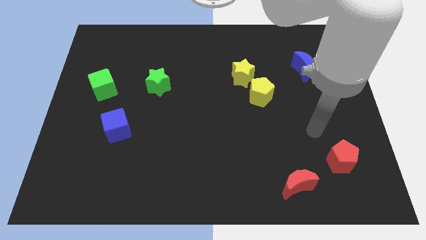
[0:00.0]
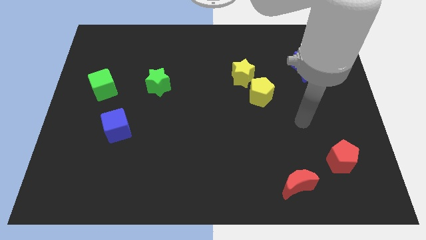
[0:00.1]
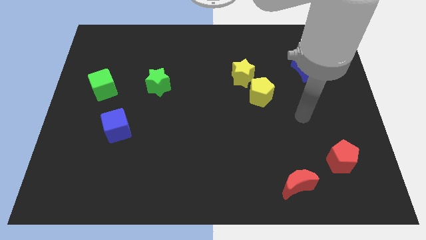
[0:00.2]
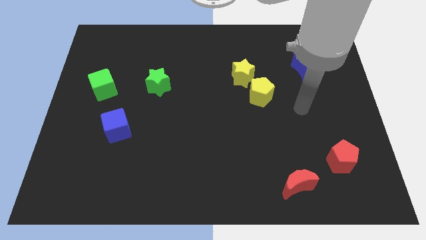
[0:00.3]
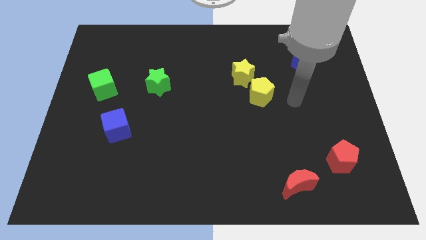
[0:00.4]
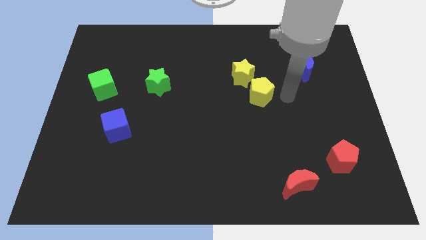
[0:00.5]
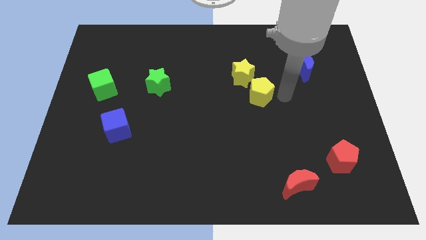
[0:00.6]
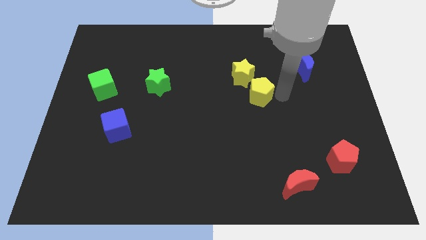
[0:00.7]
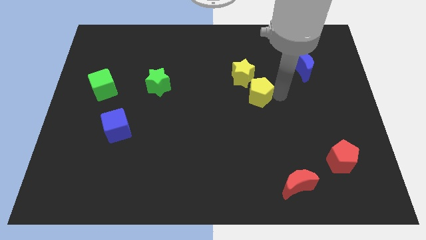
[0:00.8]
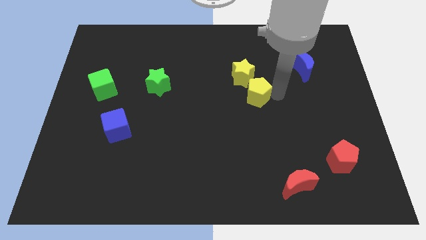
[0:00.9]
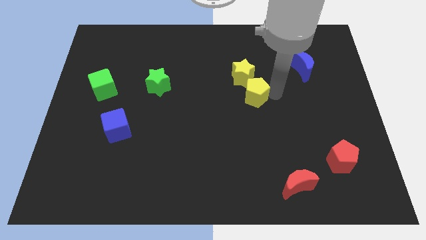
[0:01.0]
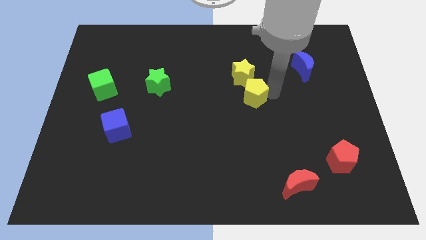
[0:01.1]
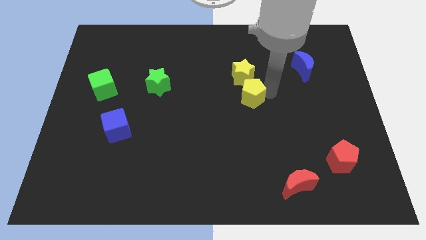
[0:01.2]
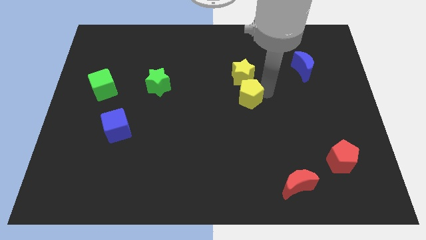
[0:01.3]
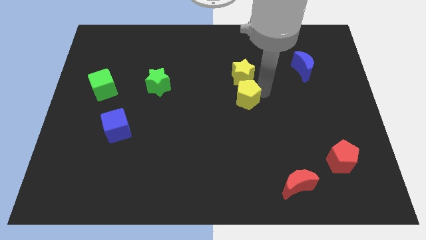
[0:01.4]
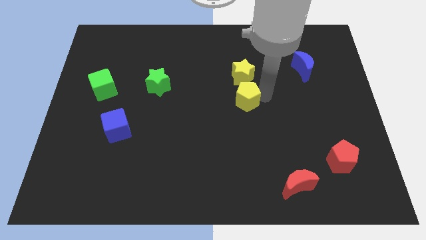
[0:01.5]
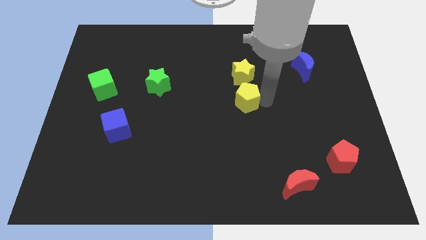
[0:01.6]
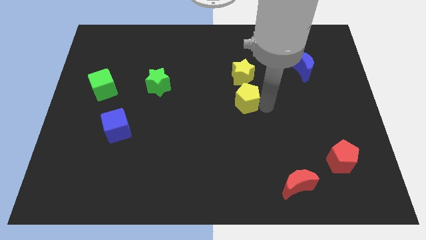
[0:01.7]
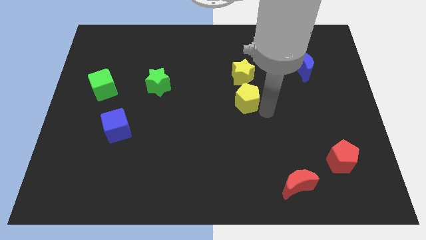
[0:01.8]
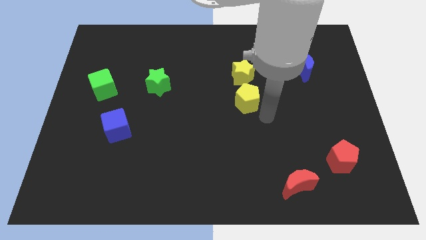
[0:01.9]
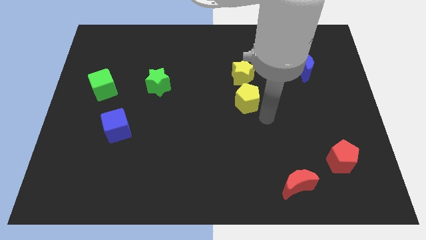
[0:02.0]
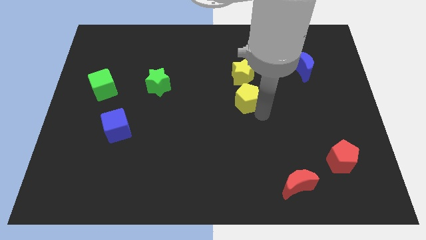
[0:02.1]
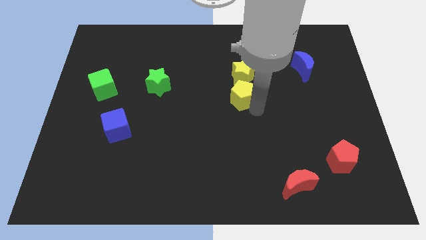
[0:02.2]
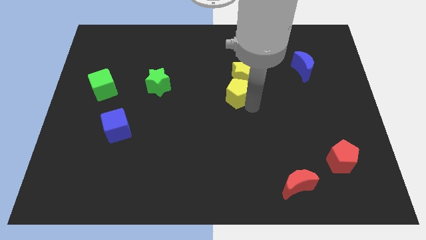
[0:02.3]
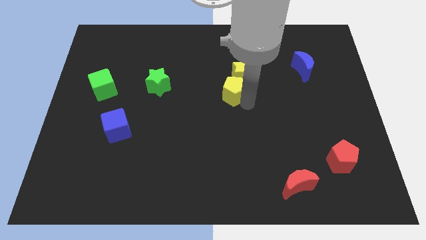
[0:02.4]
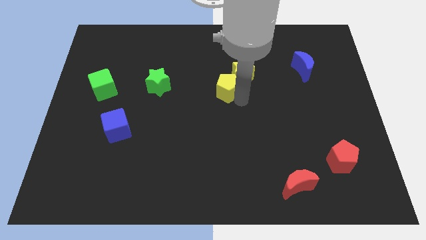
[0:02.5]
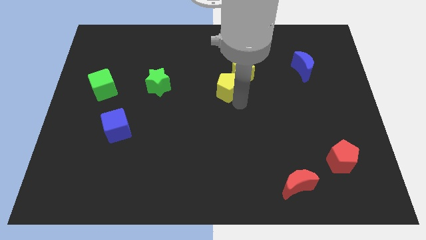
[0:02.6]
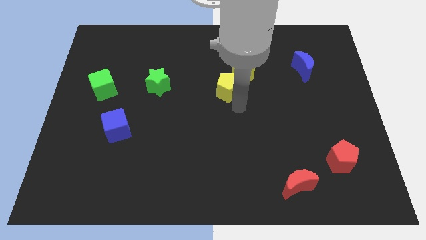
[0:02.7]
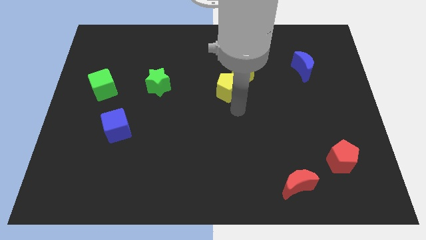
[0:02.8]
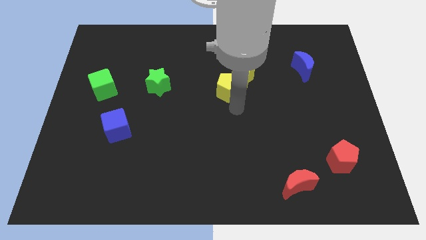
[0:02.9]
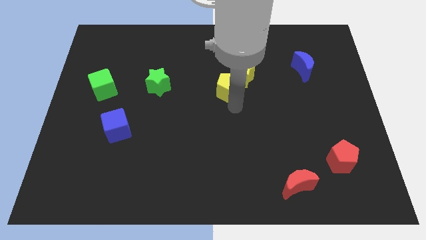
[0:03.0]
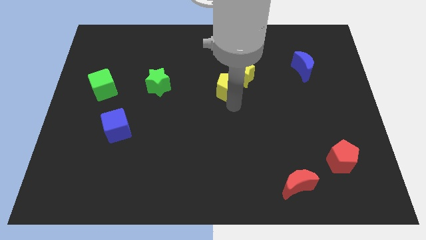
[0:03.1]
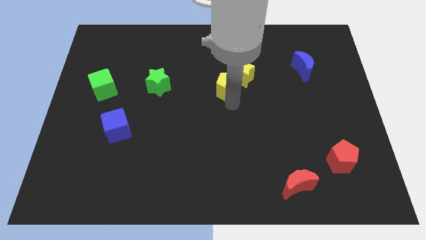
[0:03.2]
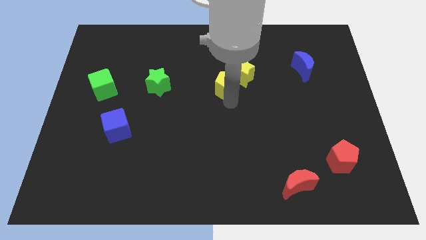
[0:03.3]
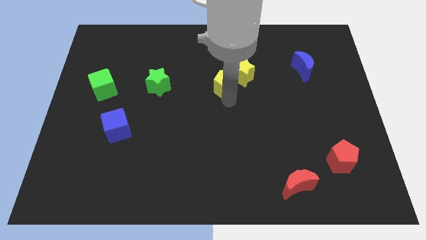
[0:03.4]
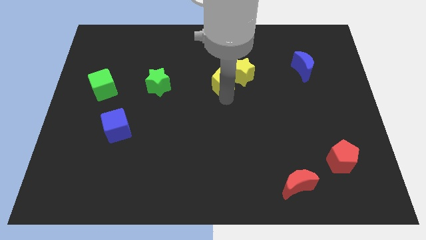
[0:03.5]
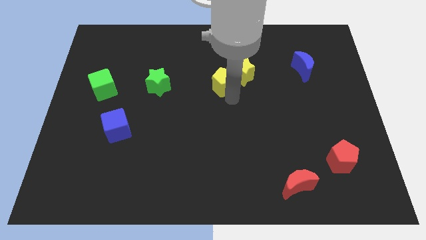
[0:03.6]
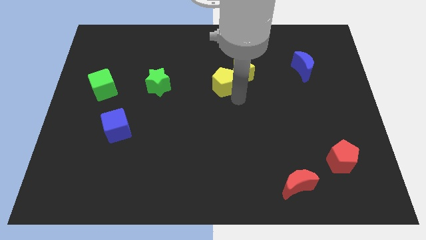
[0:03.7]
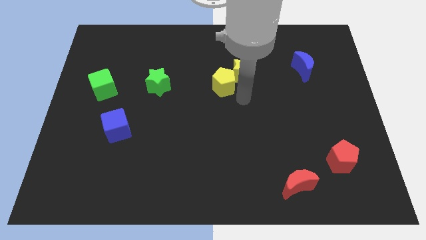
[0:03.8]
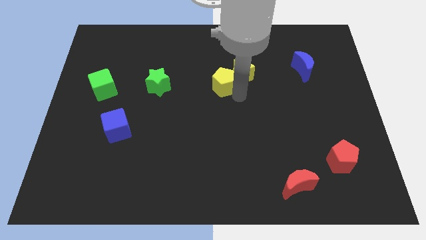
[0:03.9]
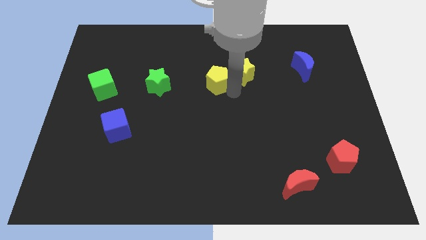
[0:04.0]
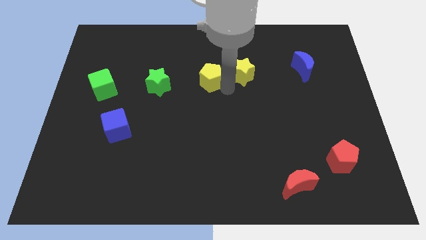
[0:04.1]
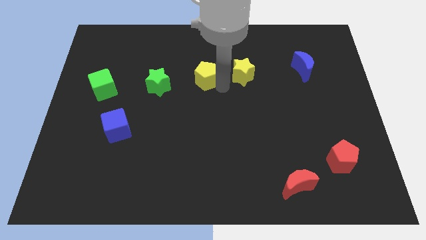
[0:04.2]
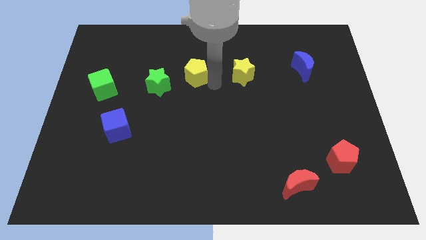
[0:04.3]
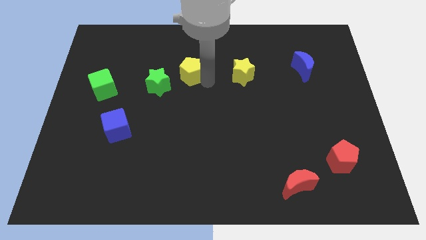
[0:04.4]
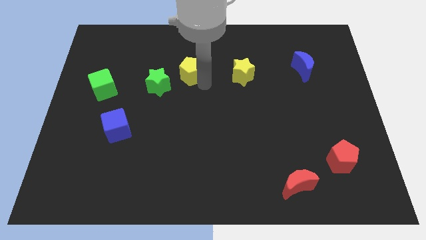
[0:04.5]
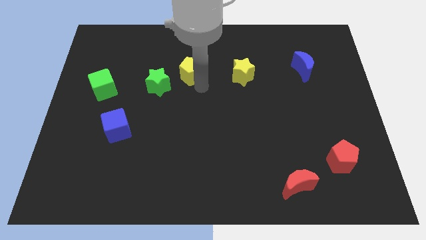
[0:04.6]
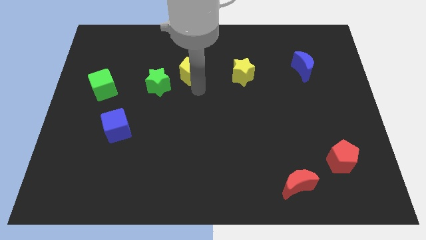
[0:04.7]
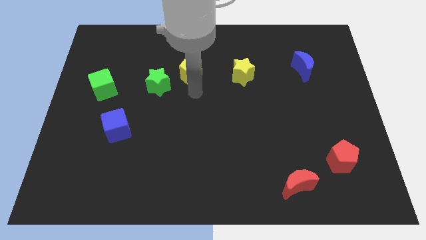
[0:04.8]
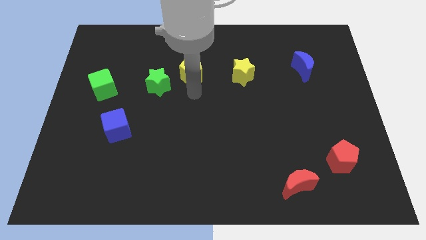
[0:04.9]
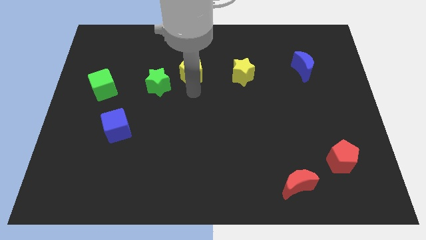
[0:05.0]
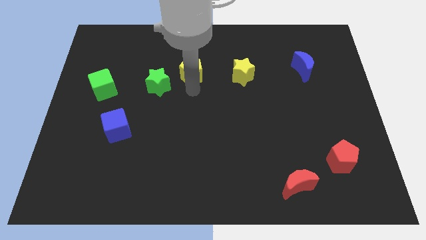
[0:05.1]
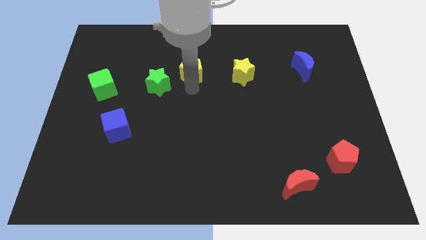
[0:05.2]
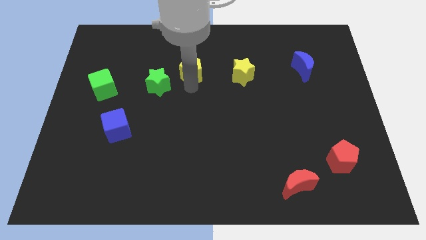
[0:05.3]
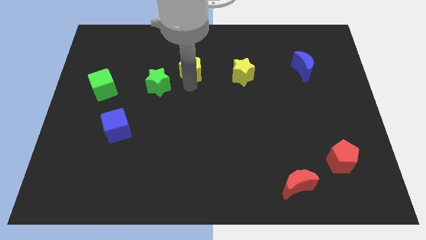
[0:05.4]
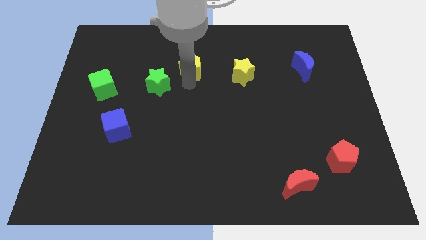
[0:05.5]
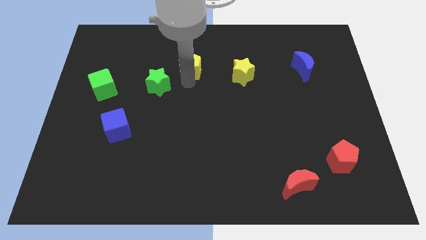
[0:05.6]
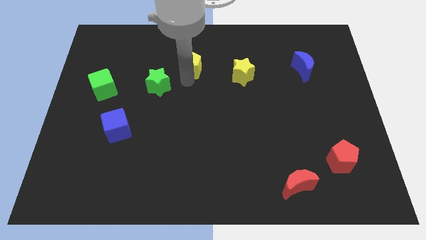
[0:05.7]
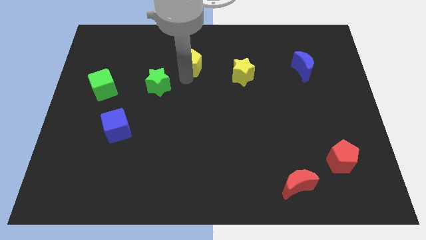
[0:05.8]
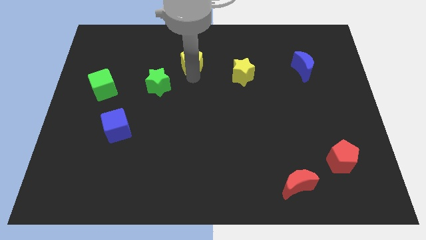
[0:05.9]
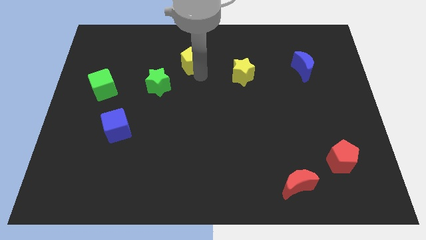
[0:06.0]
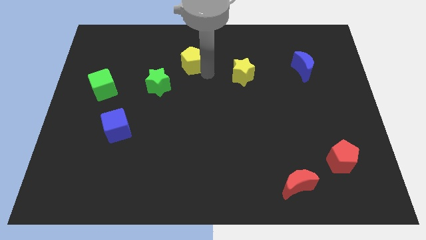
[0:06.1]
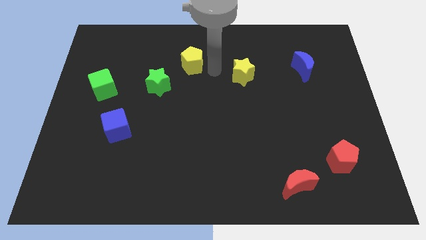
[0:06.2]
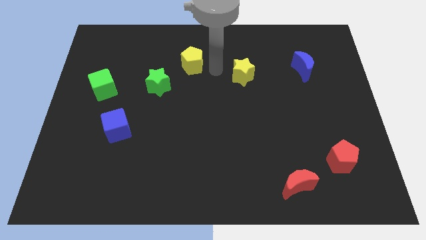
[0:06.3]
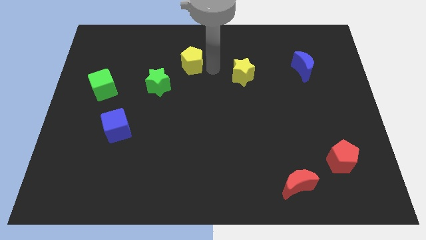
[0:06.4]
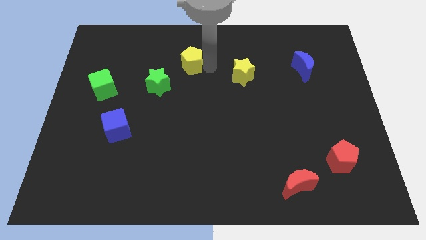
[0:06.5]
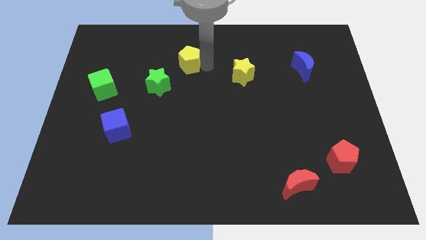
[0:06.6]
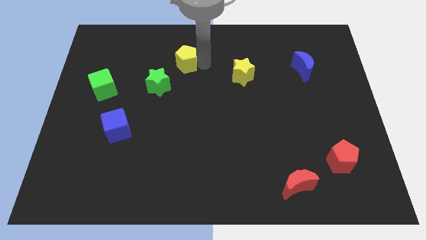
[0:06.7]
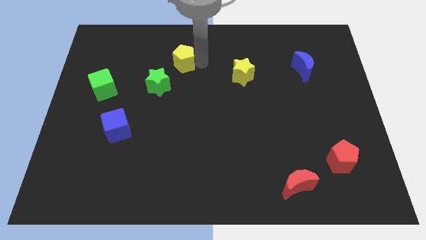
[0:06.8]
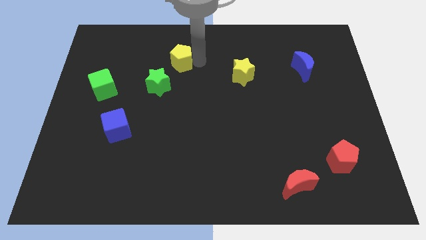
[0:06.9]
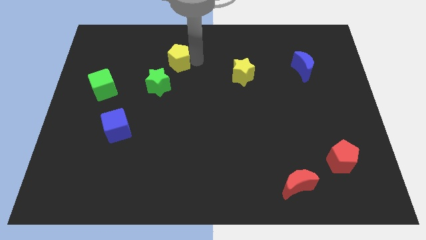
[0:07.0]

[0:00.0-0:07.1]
slide the yellow pentagon above the green star
